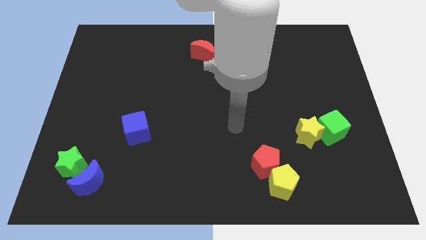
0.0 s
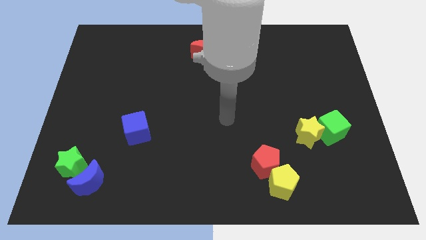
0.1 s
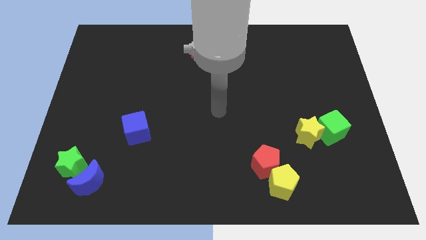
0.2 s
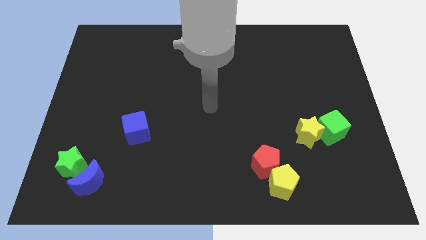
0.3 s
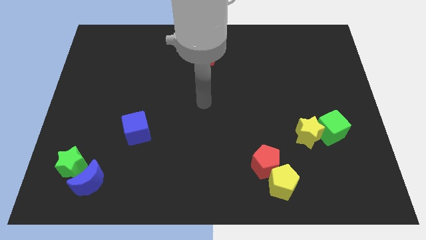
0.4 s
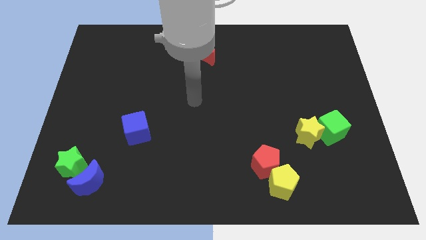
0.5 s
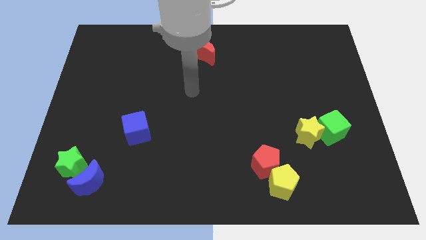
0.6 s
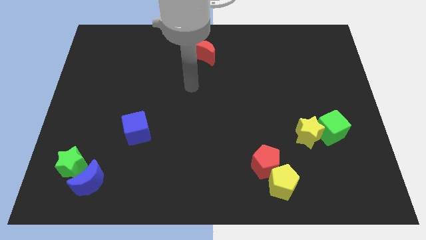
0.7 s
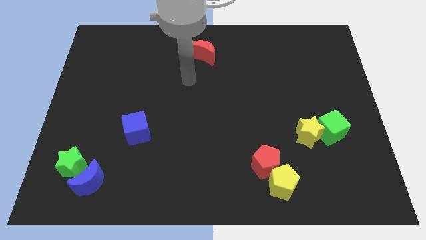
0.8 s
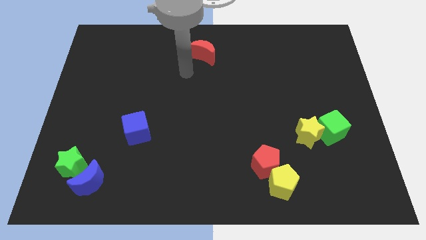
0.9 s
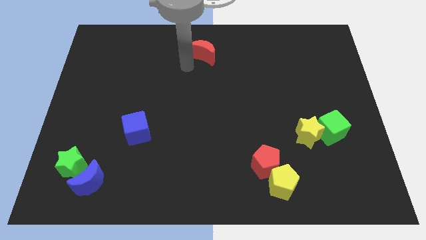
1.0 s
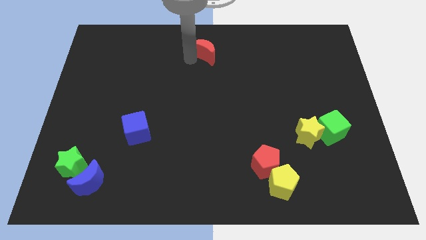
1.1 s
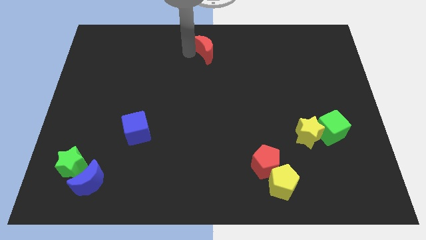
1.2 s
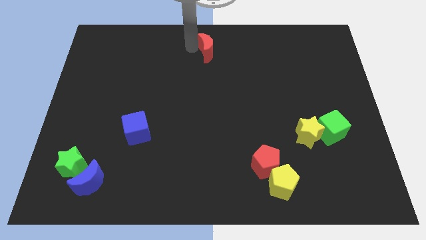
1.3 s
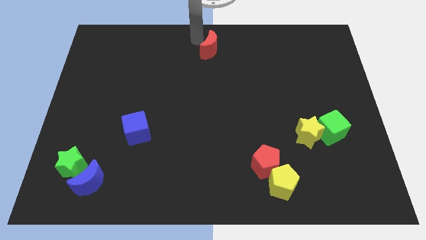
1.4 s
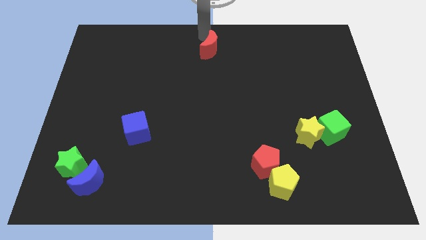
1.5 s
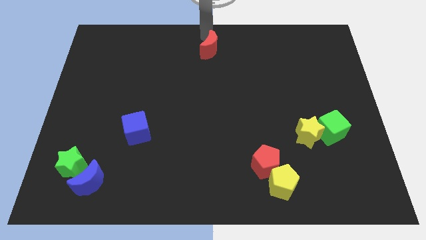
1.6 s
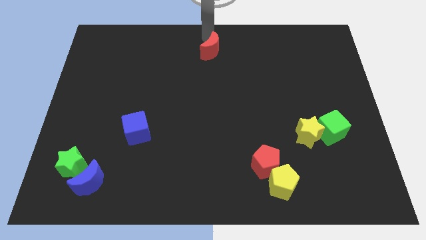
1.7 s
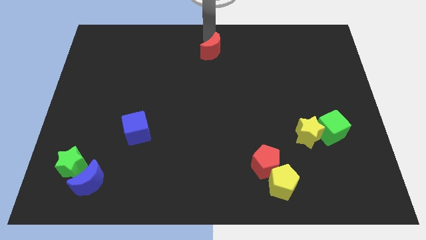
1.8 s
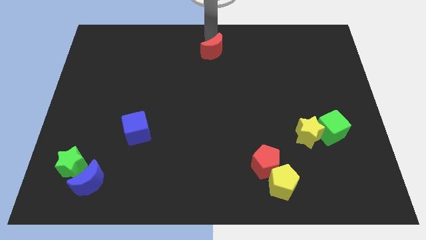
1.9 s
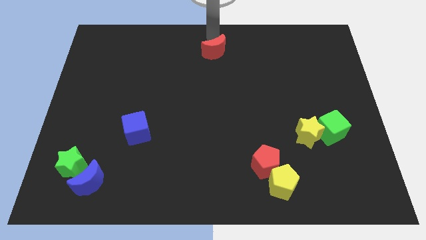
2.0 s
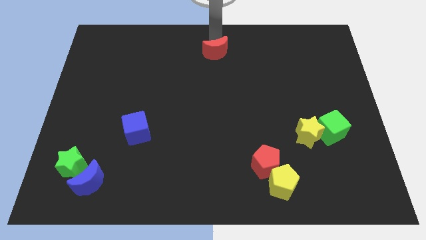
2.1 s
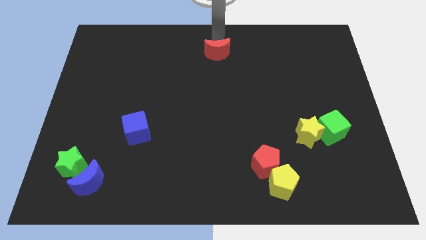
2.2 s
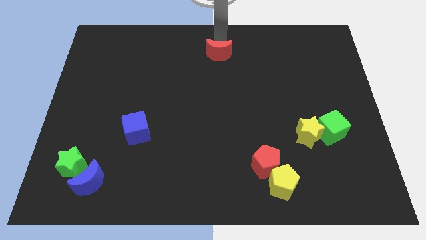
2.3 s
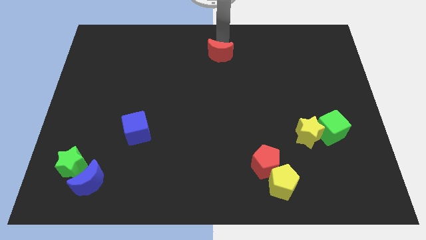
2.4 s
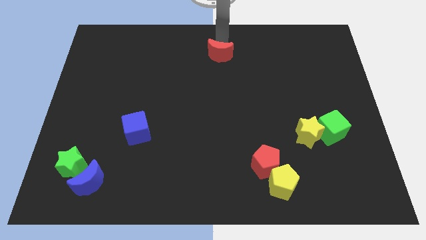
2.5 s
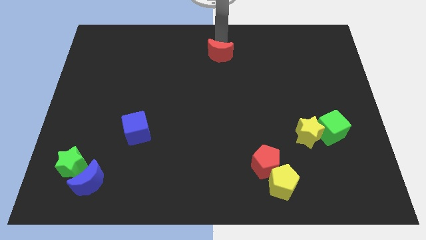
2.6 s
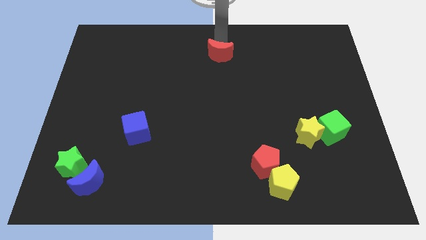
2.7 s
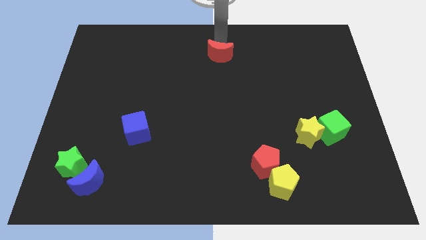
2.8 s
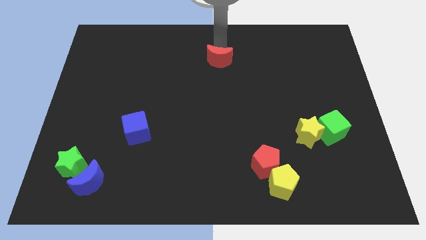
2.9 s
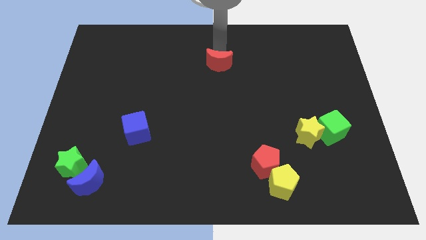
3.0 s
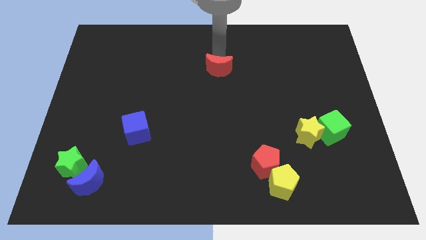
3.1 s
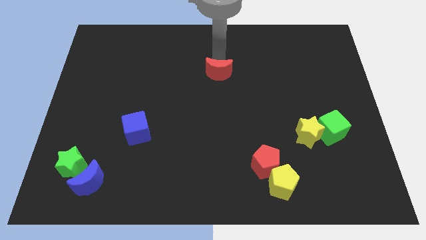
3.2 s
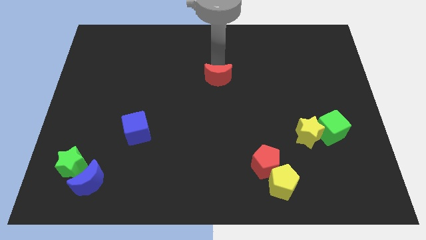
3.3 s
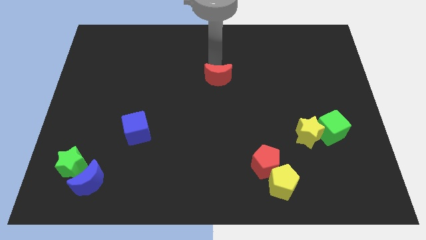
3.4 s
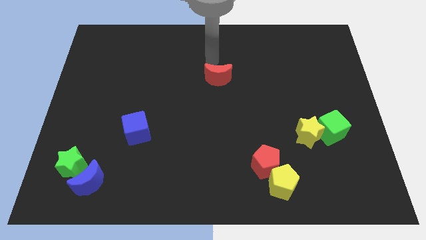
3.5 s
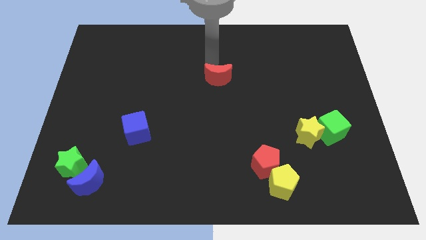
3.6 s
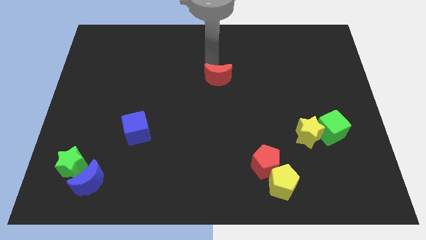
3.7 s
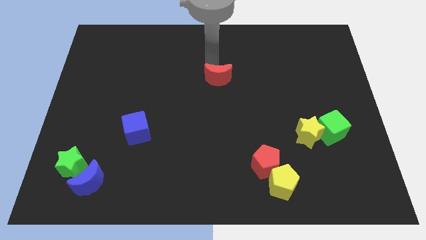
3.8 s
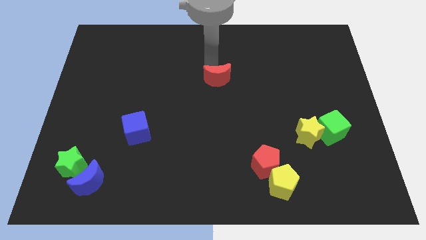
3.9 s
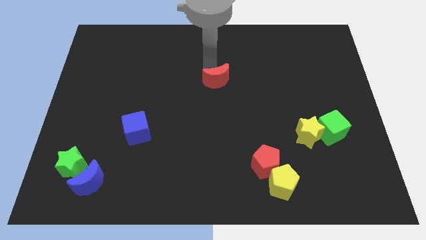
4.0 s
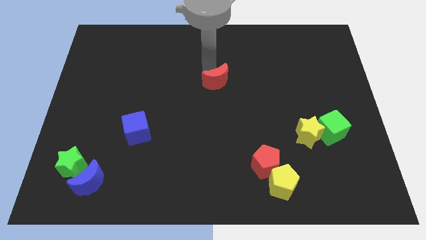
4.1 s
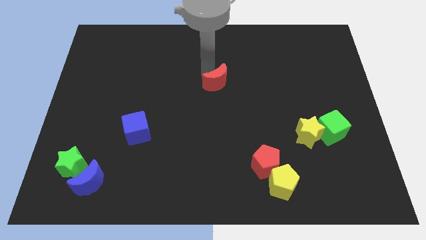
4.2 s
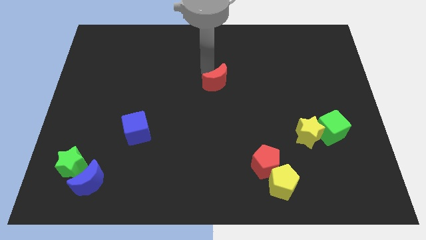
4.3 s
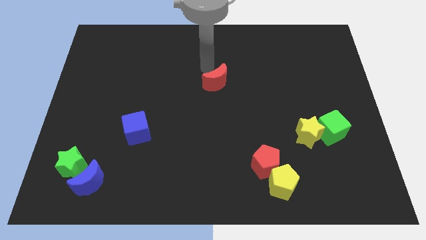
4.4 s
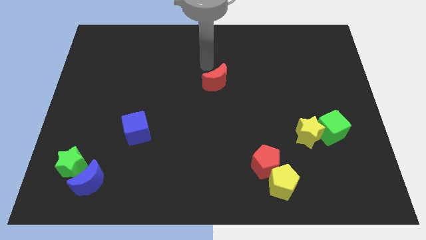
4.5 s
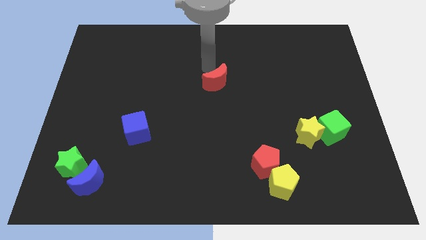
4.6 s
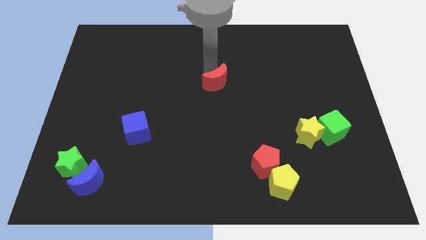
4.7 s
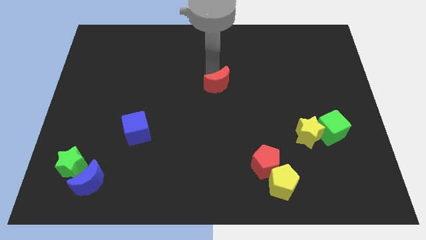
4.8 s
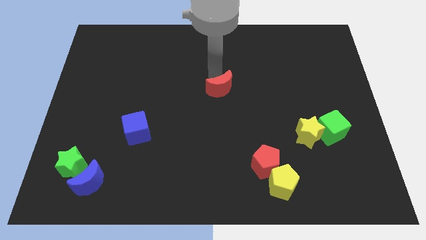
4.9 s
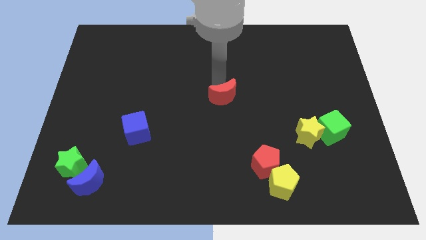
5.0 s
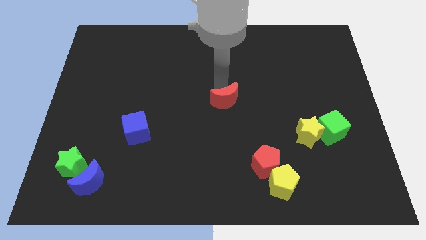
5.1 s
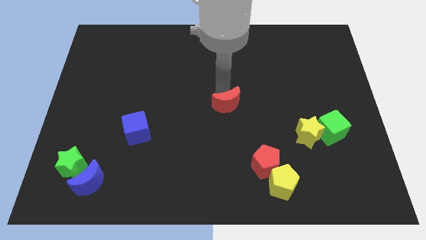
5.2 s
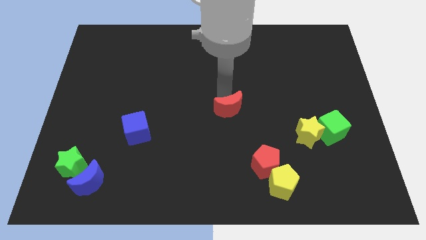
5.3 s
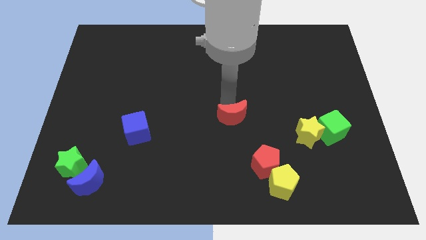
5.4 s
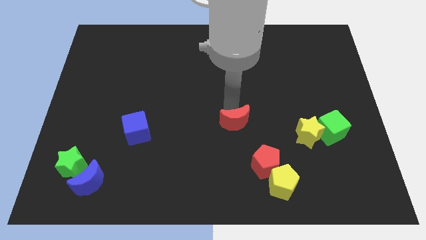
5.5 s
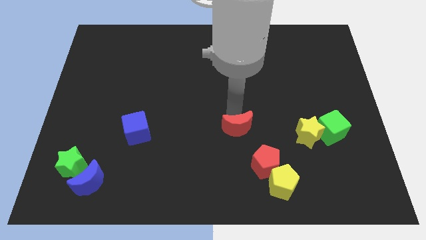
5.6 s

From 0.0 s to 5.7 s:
put the red moon diagonally up and to the left of the red pentagon

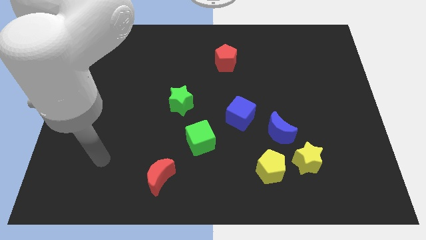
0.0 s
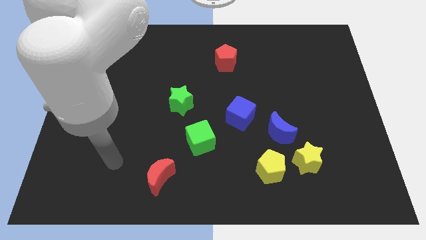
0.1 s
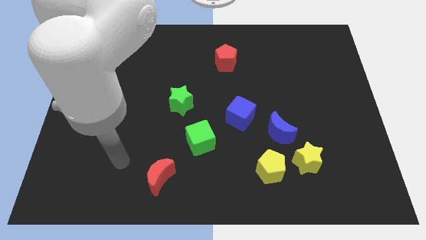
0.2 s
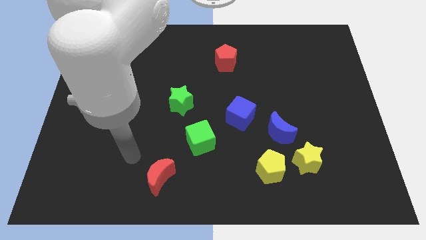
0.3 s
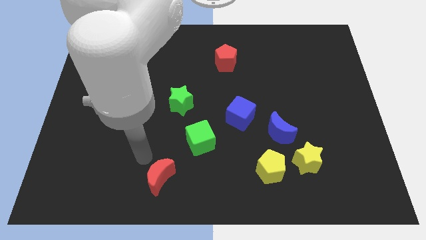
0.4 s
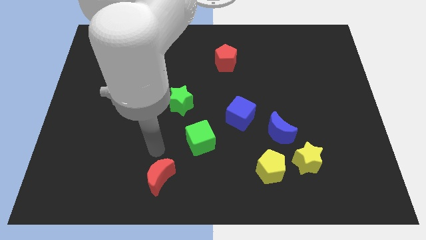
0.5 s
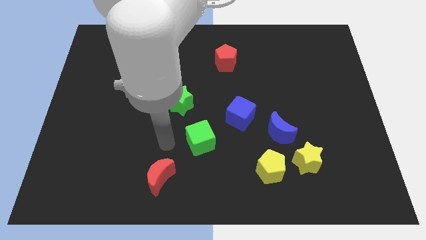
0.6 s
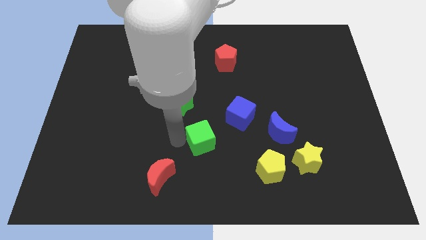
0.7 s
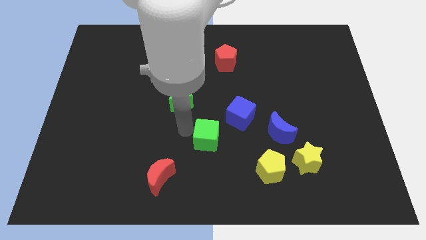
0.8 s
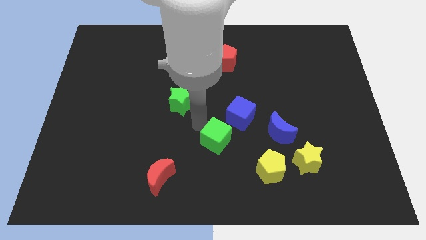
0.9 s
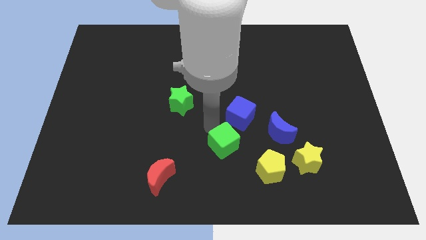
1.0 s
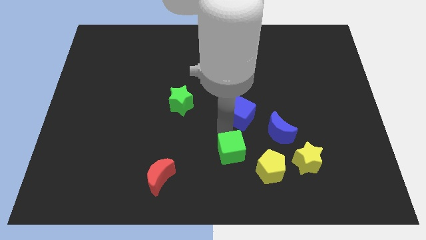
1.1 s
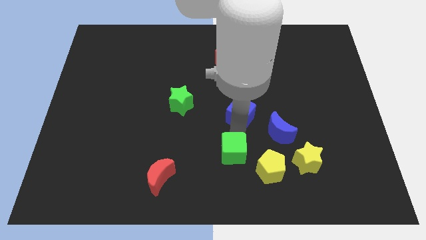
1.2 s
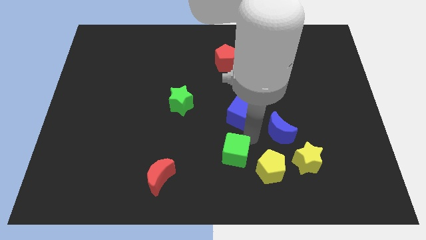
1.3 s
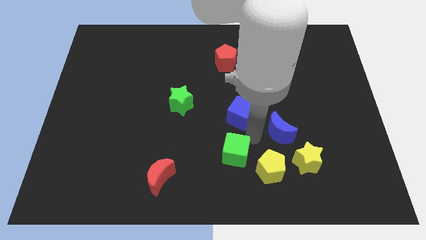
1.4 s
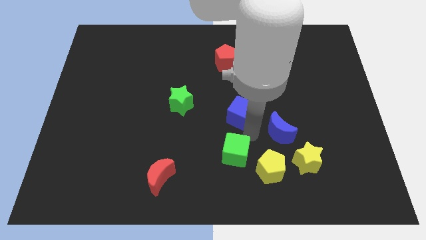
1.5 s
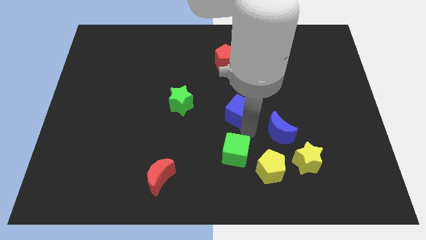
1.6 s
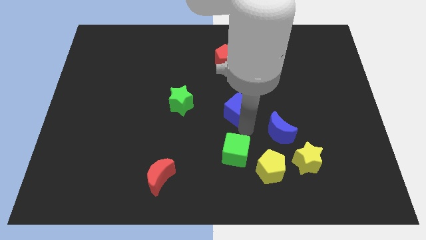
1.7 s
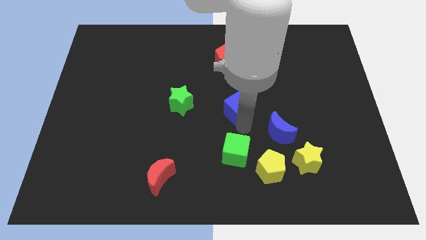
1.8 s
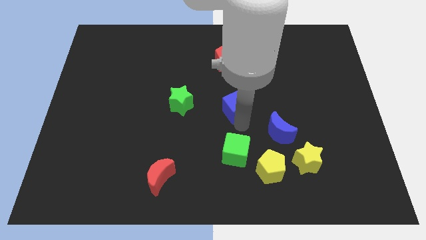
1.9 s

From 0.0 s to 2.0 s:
move the blue cube to the bottom of the red pentagon
